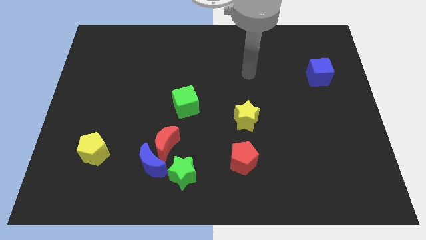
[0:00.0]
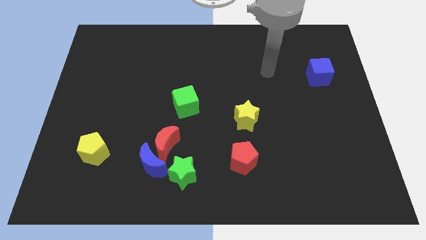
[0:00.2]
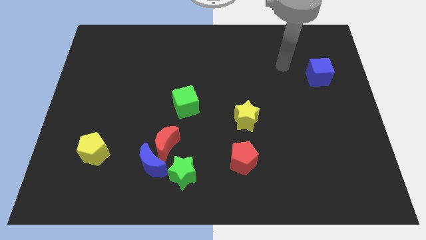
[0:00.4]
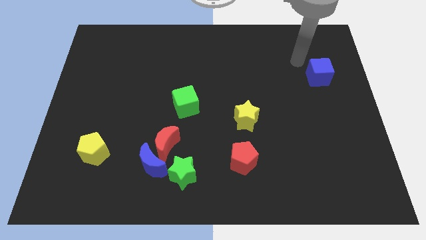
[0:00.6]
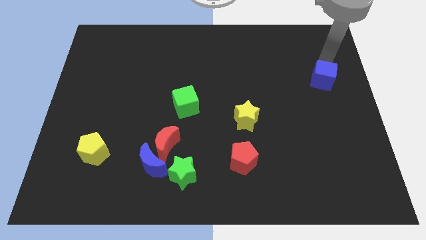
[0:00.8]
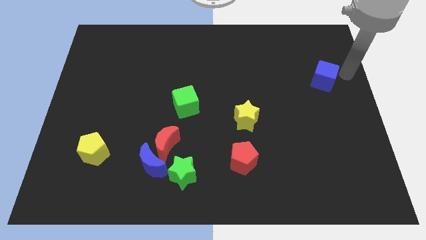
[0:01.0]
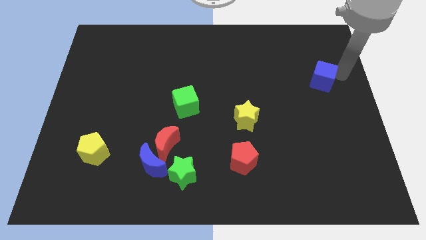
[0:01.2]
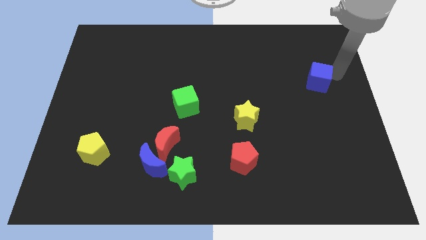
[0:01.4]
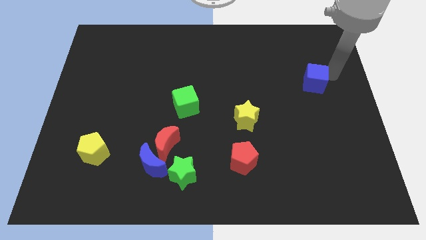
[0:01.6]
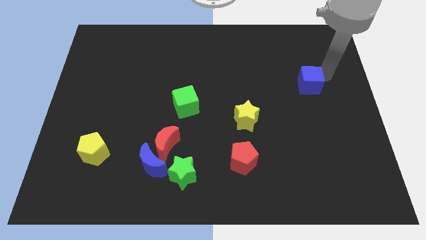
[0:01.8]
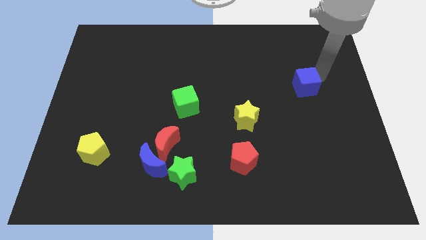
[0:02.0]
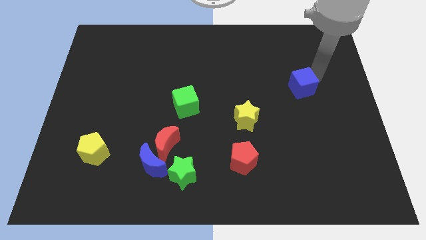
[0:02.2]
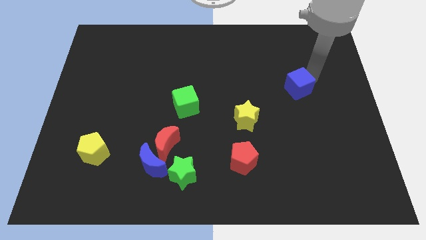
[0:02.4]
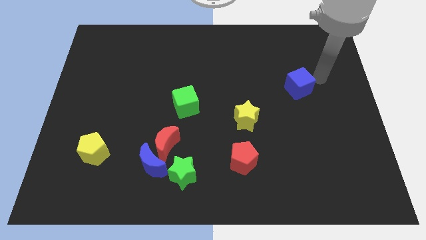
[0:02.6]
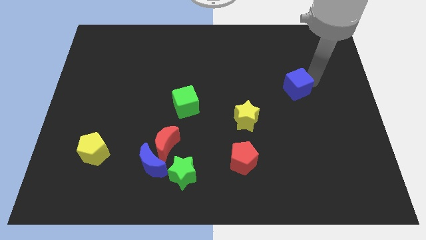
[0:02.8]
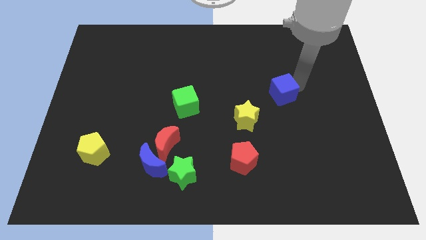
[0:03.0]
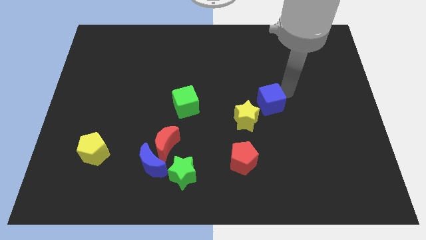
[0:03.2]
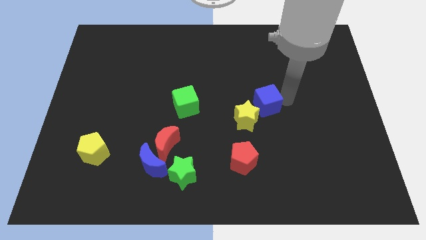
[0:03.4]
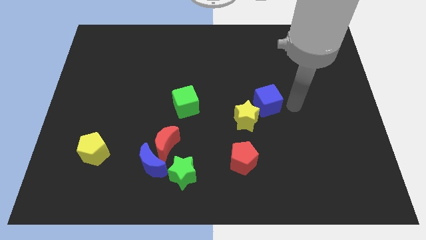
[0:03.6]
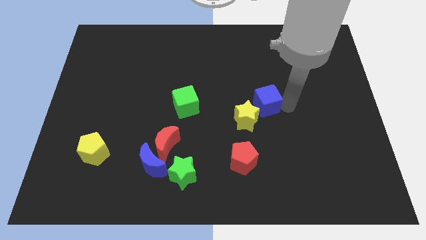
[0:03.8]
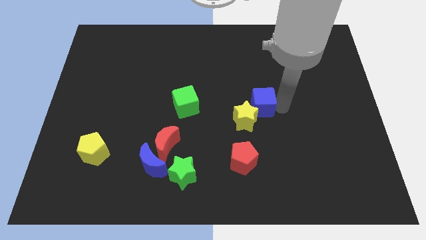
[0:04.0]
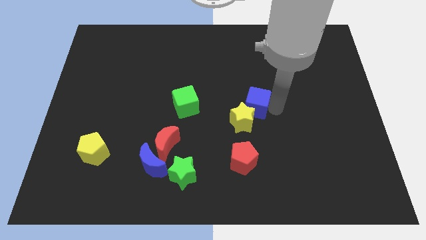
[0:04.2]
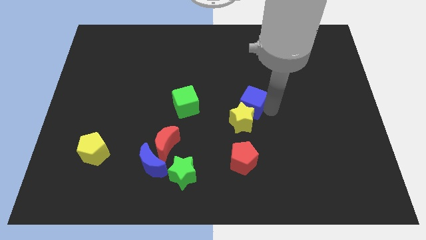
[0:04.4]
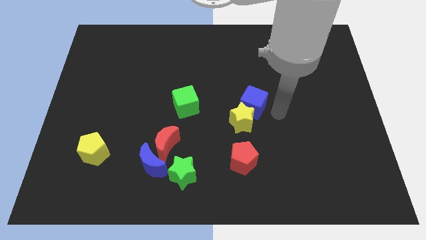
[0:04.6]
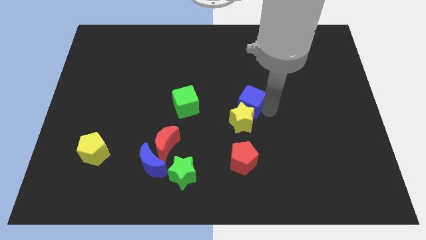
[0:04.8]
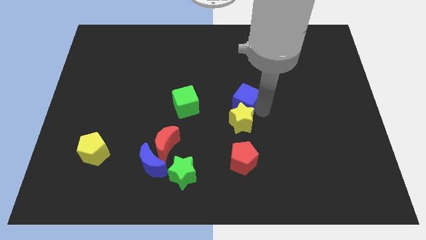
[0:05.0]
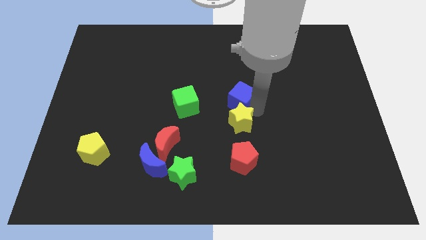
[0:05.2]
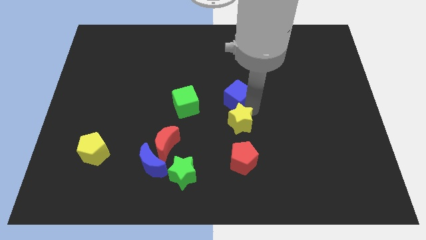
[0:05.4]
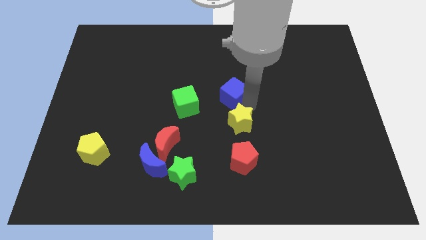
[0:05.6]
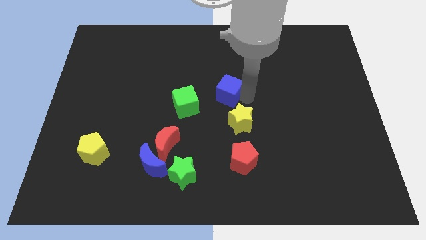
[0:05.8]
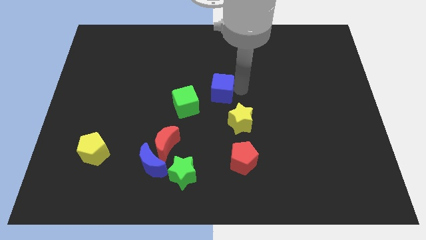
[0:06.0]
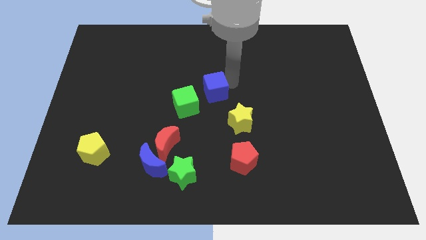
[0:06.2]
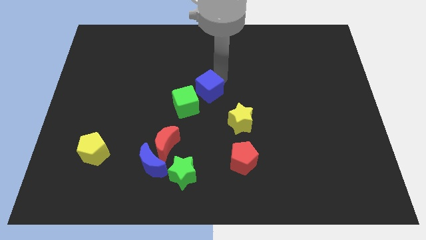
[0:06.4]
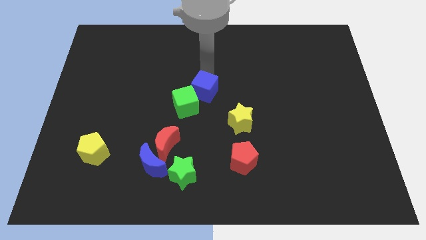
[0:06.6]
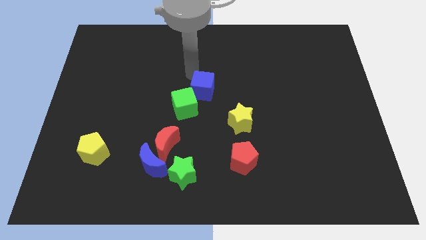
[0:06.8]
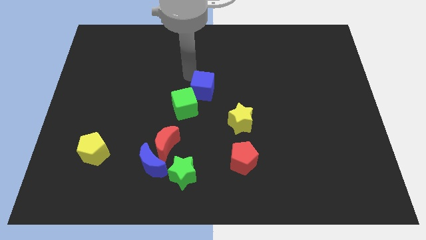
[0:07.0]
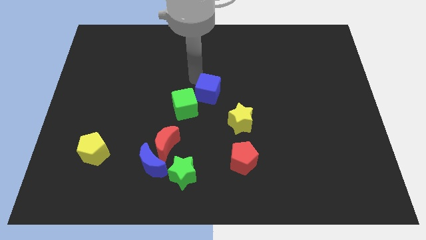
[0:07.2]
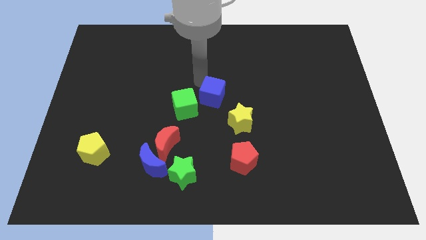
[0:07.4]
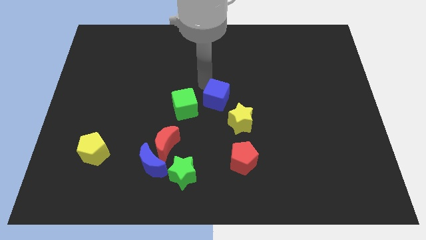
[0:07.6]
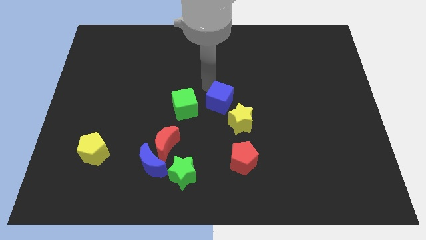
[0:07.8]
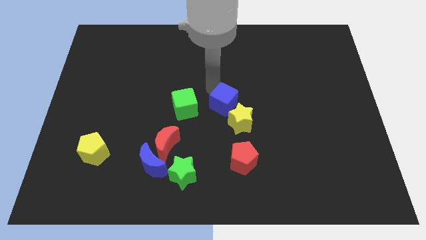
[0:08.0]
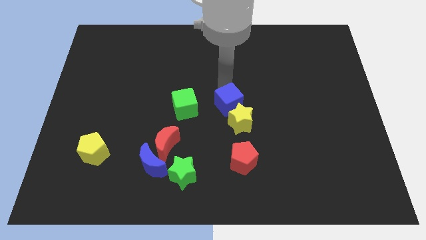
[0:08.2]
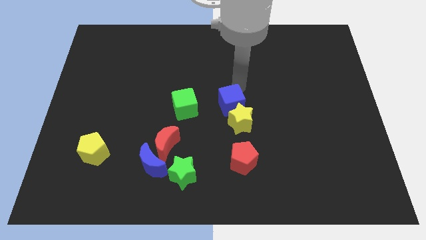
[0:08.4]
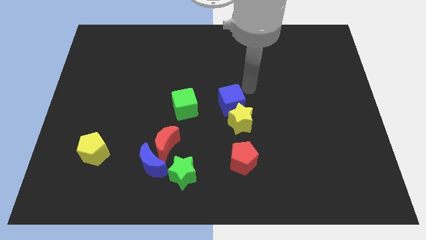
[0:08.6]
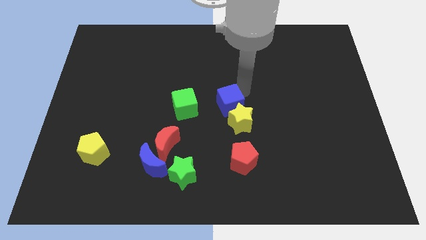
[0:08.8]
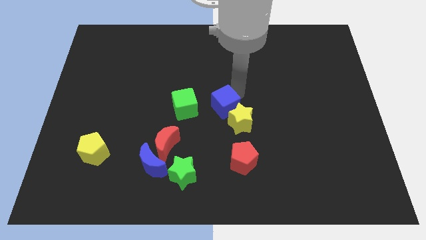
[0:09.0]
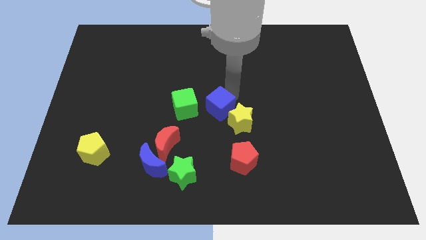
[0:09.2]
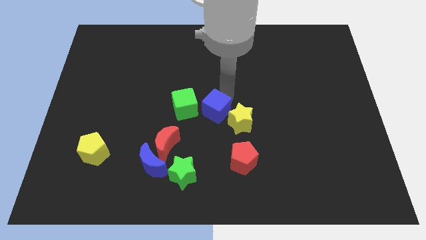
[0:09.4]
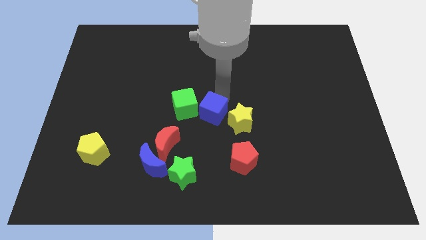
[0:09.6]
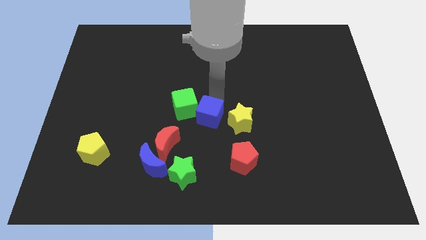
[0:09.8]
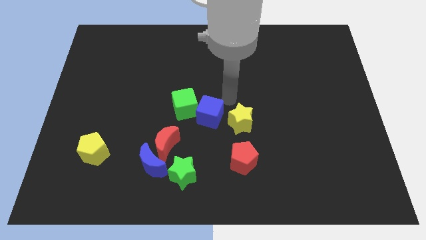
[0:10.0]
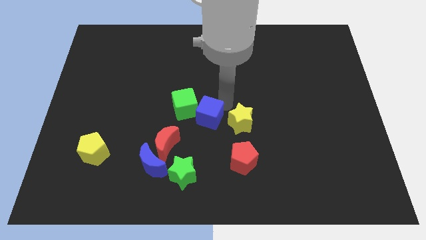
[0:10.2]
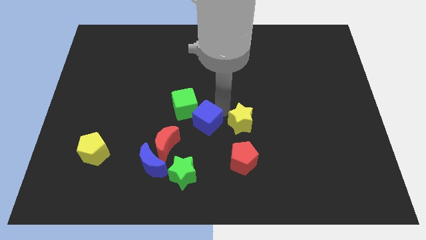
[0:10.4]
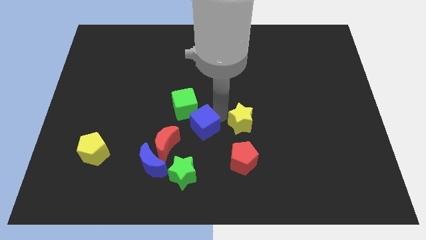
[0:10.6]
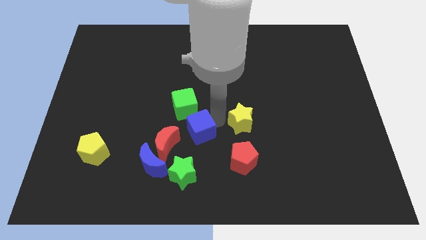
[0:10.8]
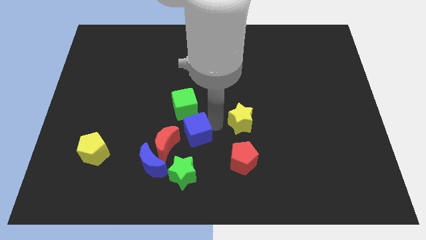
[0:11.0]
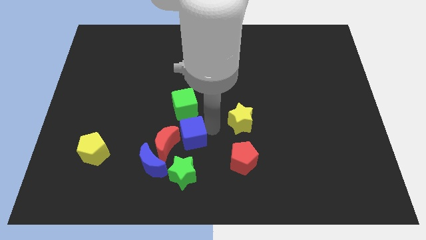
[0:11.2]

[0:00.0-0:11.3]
move the blue cube close to the red moon

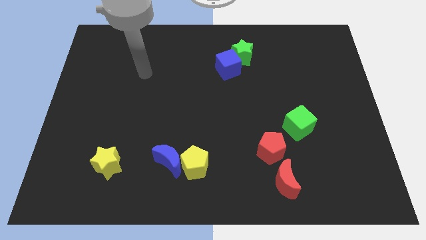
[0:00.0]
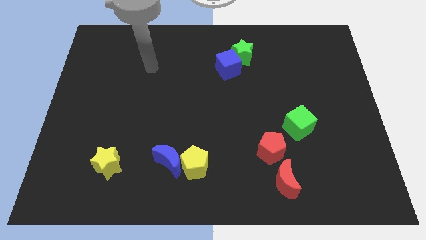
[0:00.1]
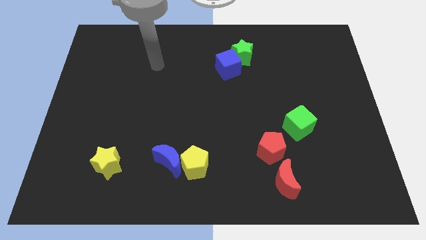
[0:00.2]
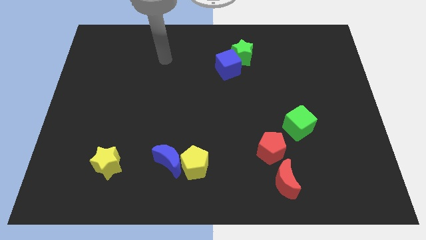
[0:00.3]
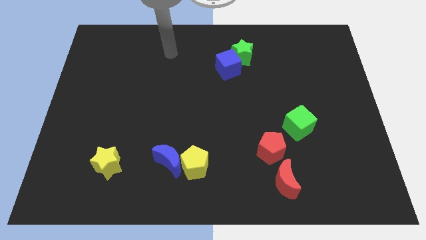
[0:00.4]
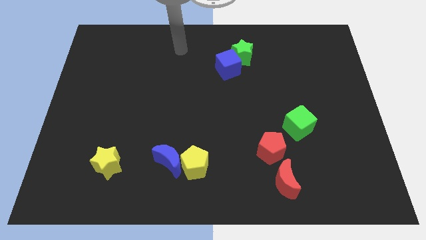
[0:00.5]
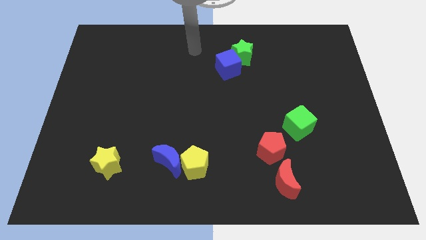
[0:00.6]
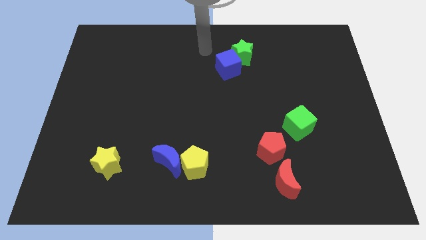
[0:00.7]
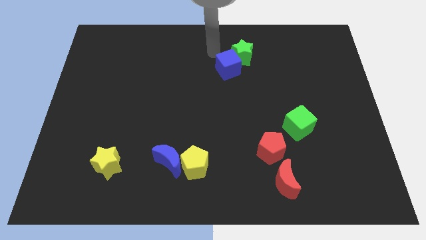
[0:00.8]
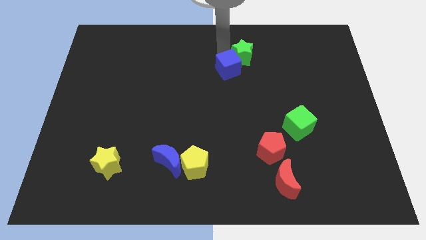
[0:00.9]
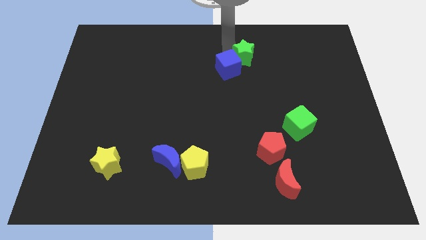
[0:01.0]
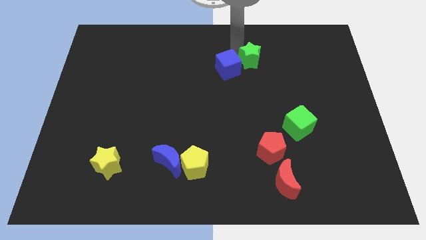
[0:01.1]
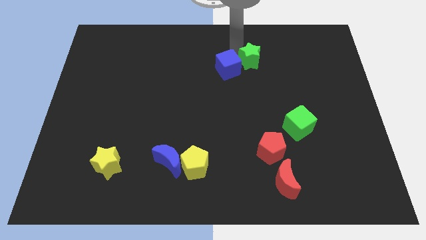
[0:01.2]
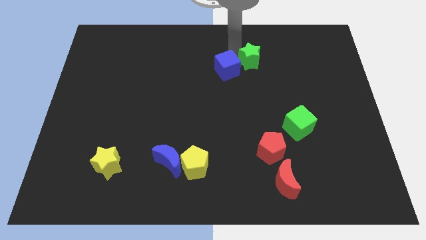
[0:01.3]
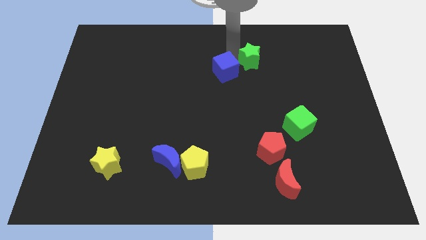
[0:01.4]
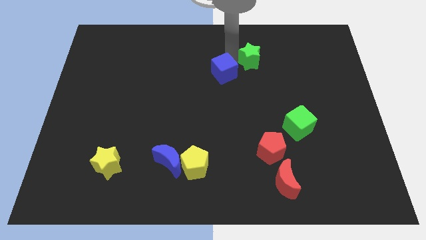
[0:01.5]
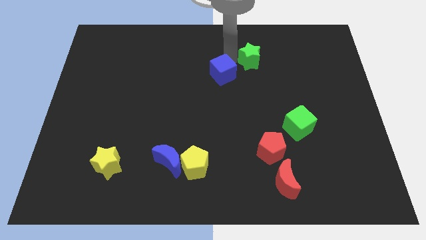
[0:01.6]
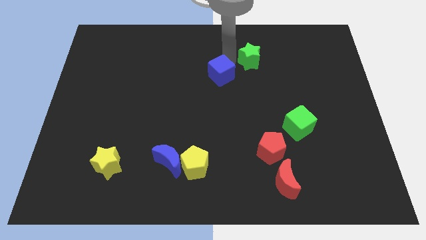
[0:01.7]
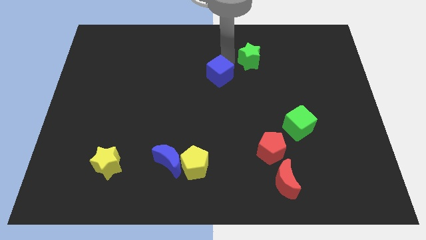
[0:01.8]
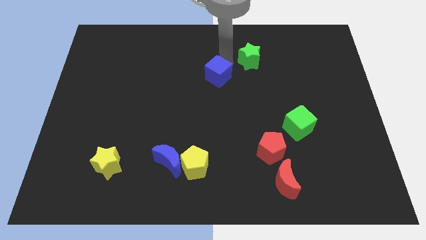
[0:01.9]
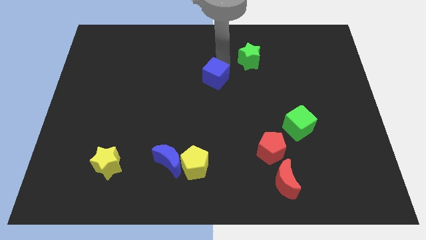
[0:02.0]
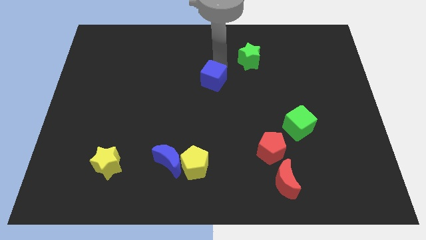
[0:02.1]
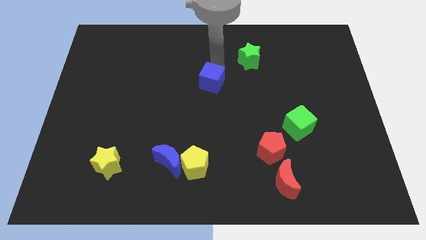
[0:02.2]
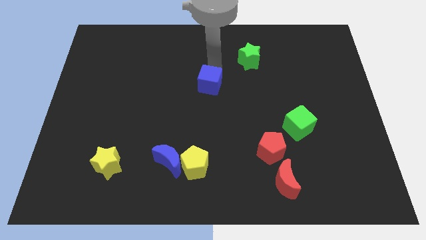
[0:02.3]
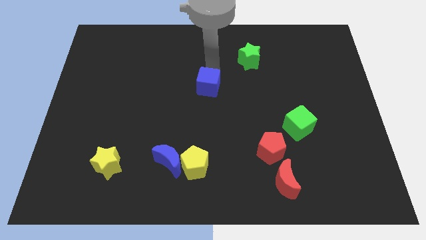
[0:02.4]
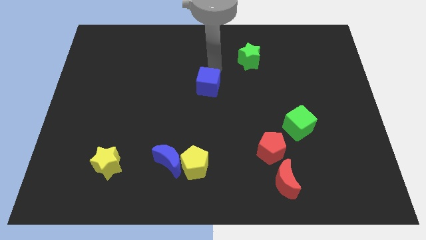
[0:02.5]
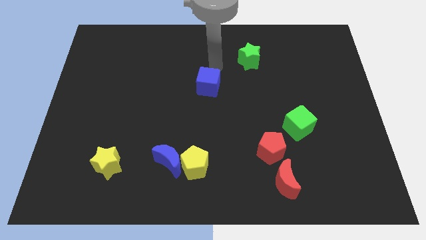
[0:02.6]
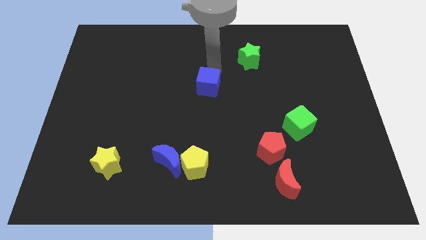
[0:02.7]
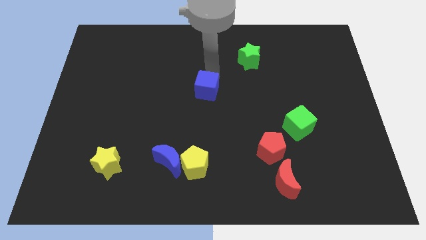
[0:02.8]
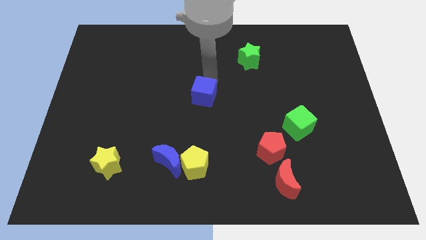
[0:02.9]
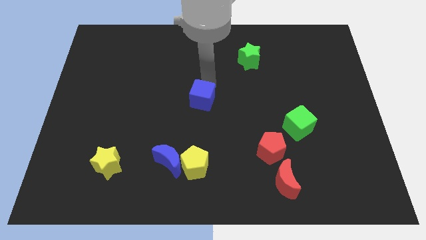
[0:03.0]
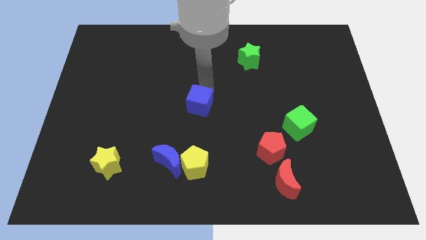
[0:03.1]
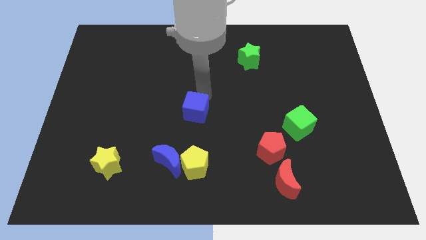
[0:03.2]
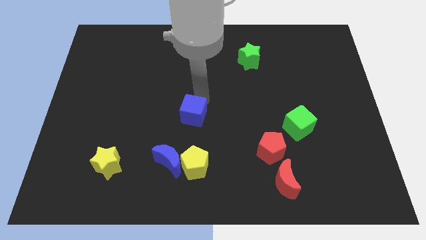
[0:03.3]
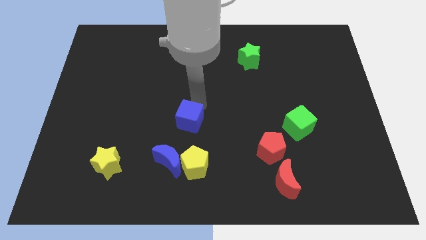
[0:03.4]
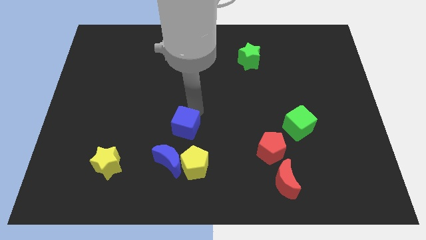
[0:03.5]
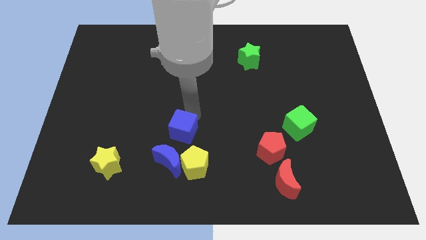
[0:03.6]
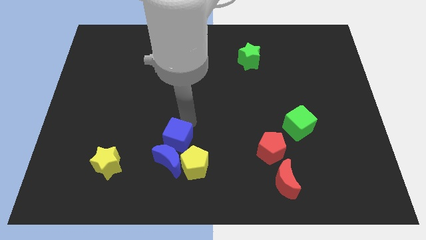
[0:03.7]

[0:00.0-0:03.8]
move the blue cube to the blue moon
